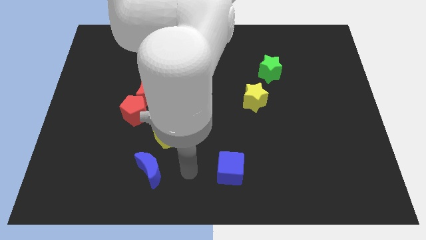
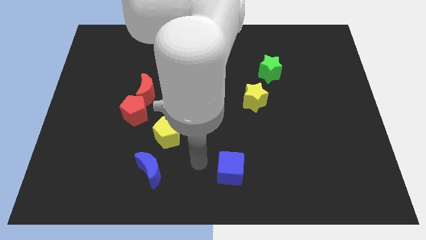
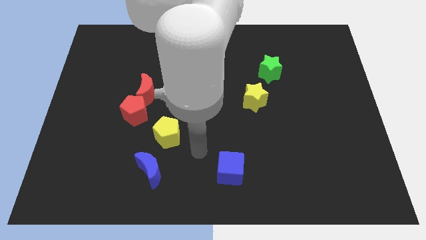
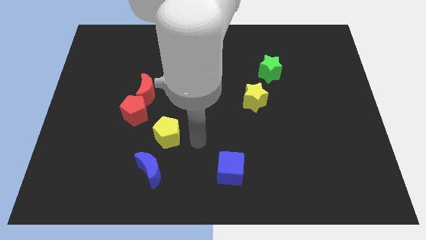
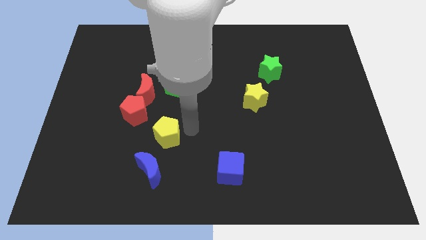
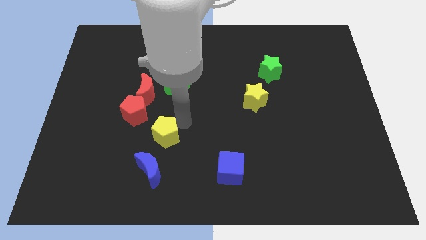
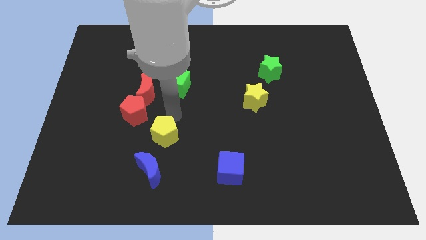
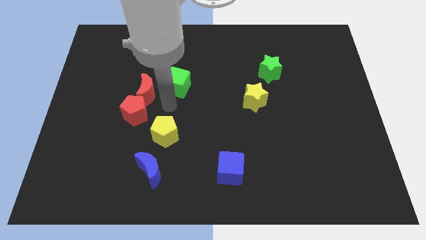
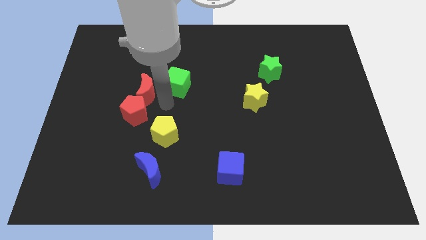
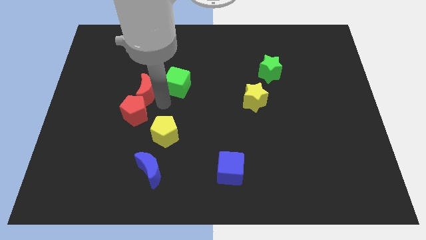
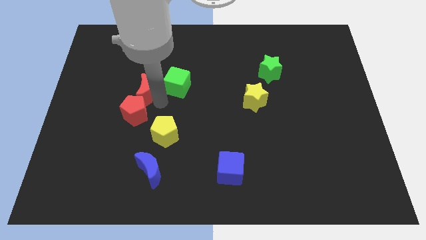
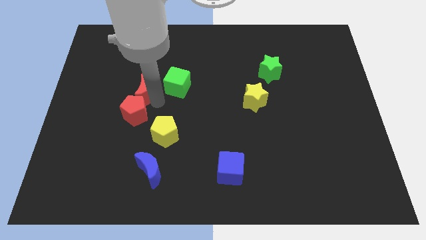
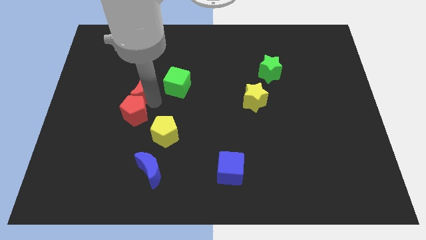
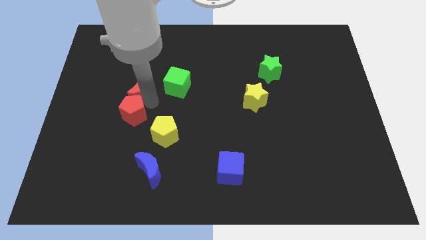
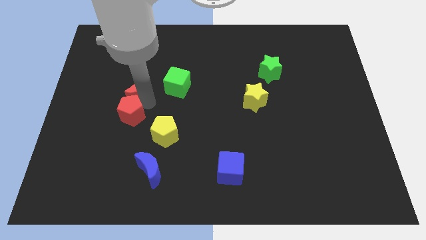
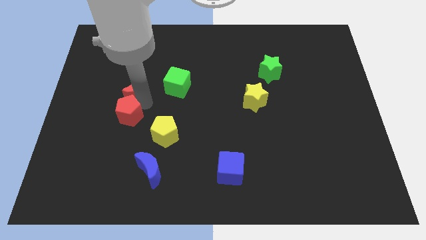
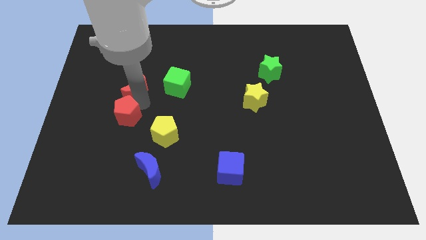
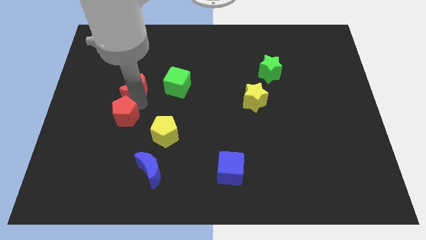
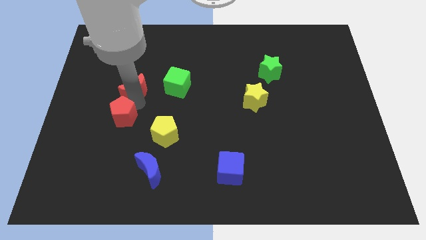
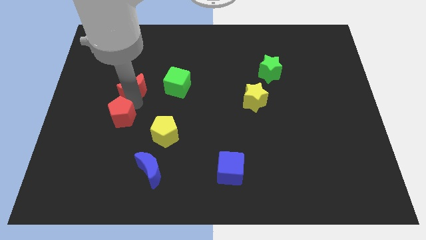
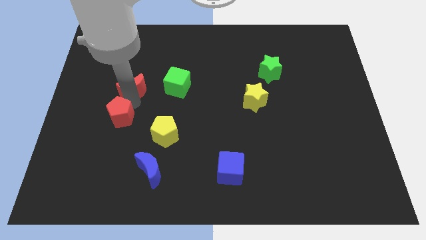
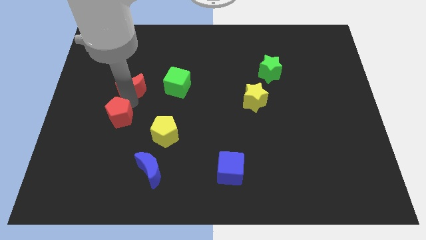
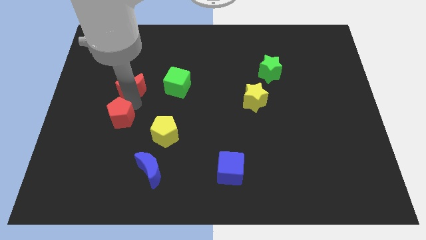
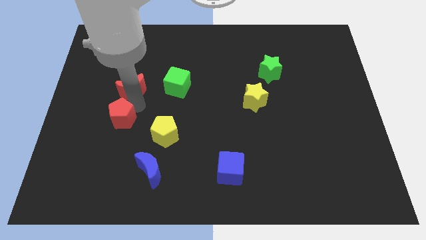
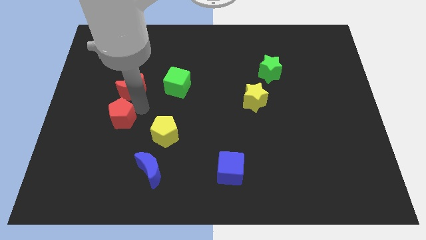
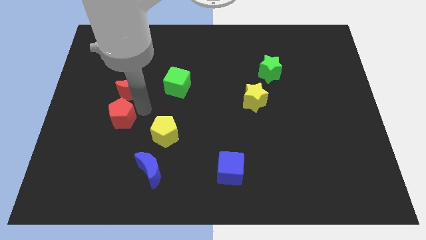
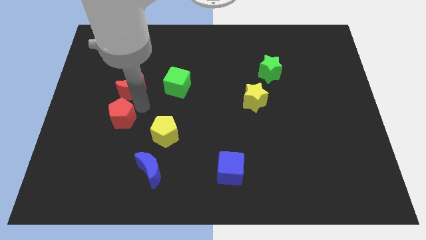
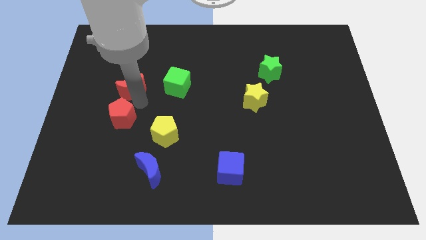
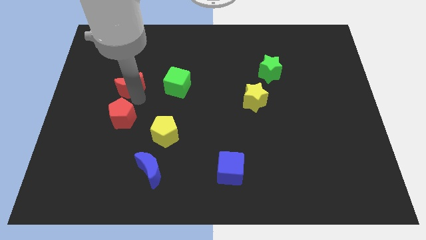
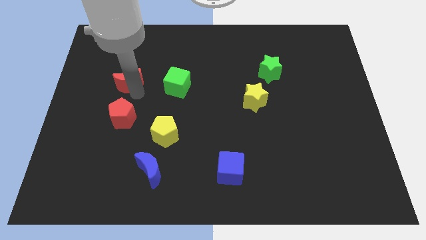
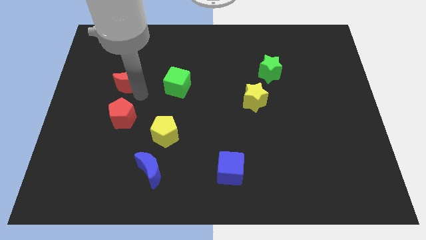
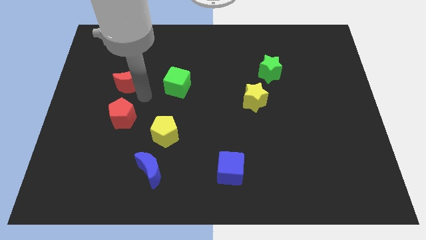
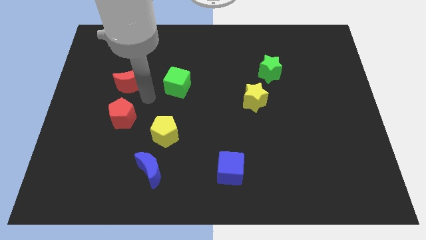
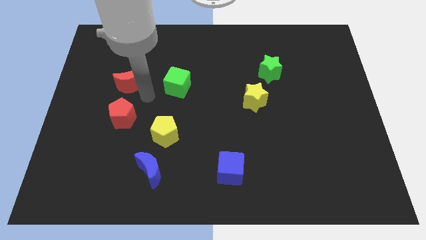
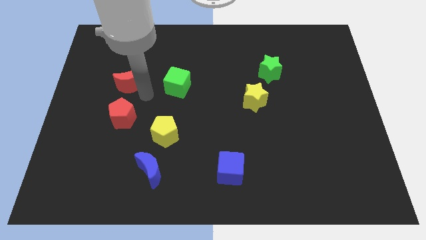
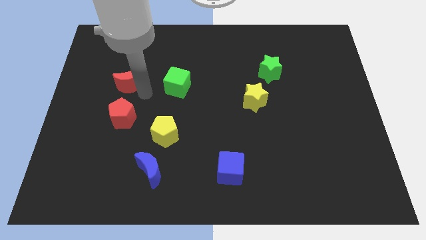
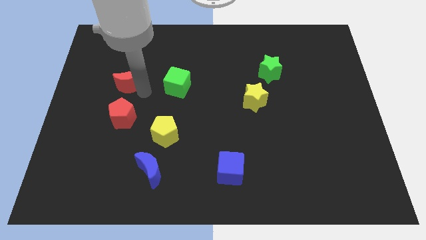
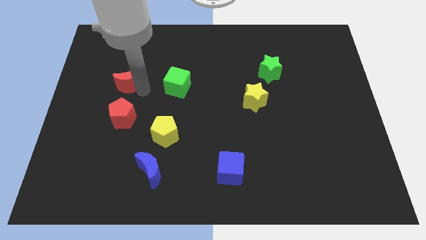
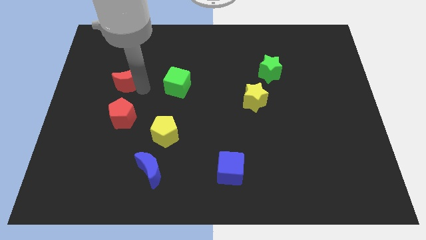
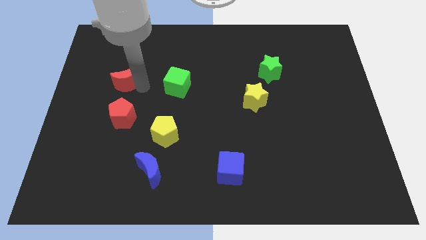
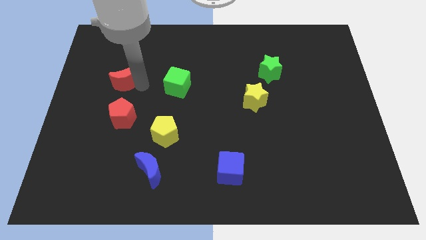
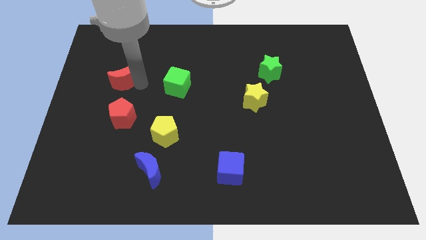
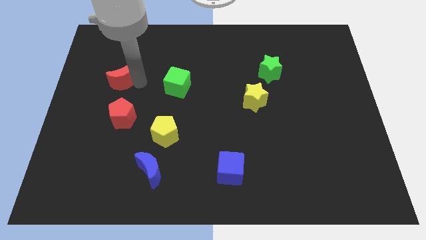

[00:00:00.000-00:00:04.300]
pull the red moon apart from the red pentagon and green cube

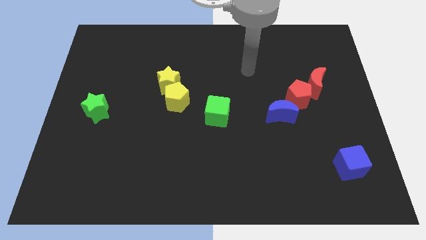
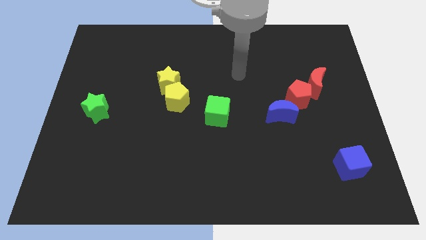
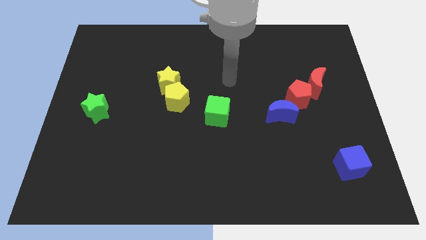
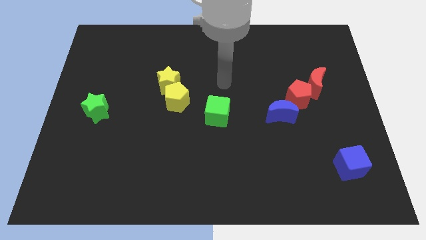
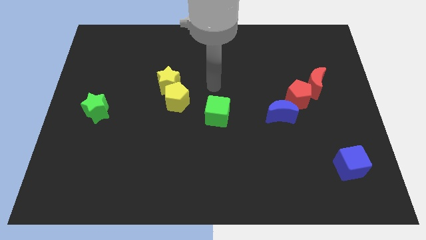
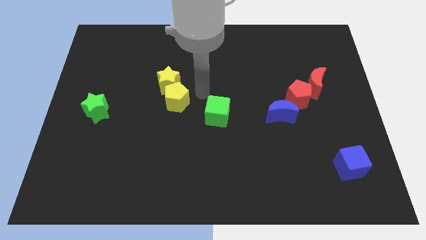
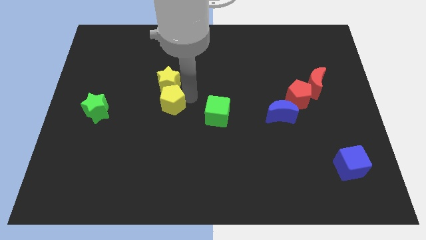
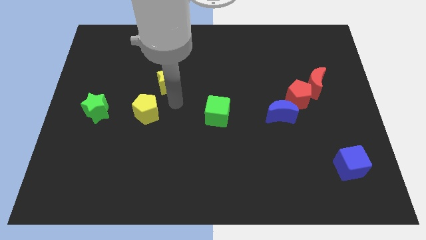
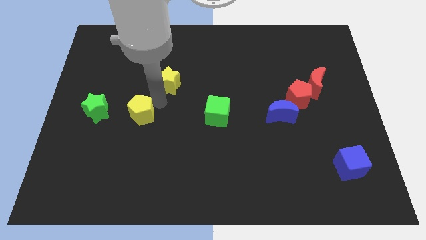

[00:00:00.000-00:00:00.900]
move the yellow star away from the yellow pentagon

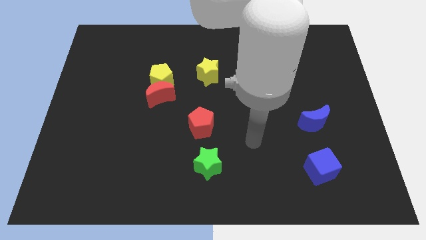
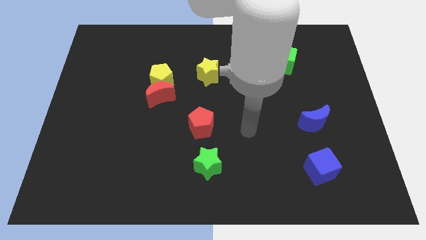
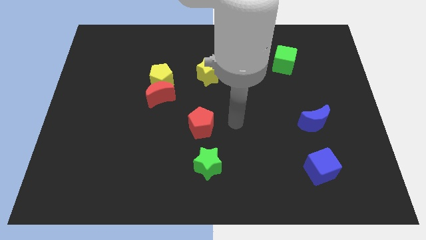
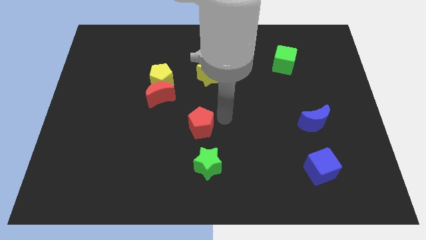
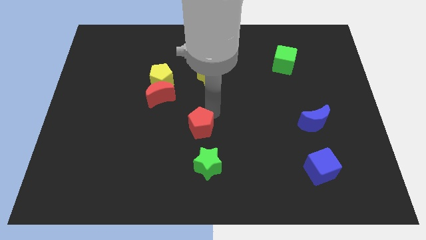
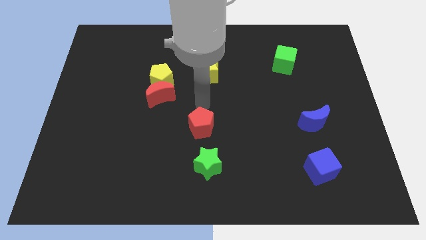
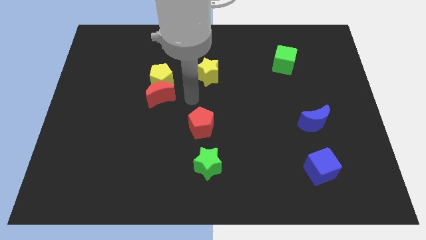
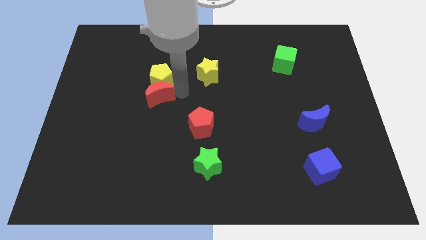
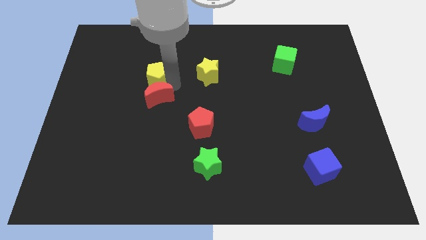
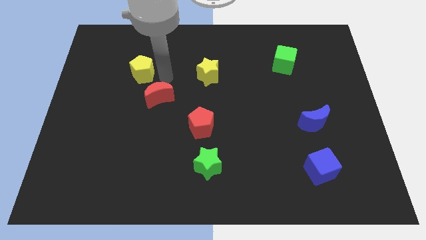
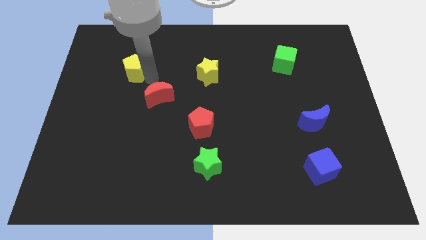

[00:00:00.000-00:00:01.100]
pull the red moon apart from the yellow pentagon

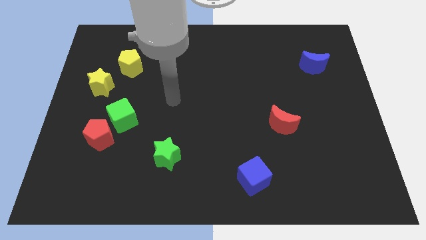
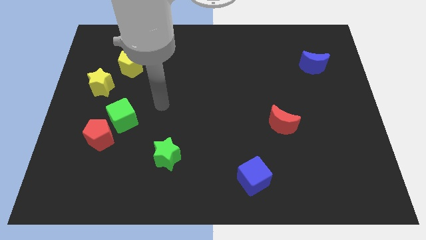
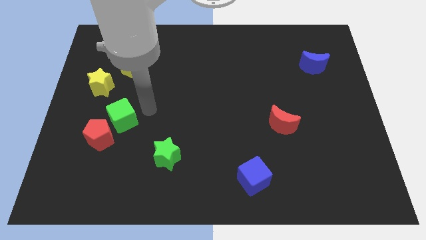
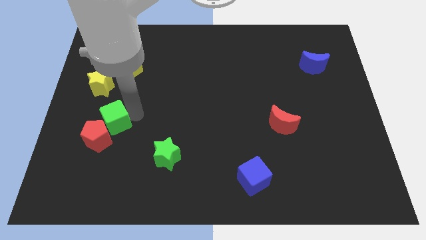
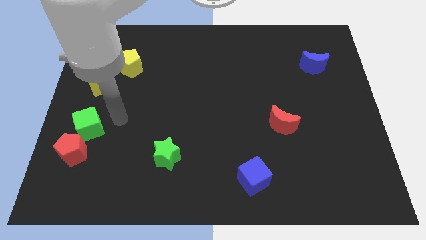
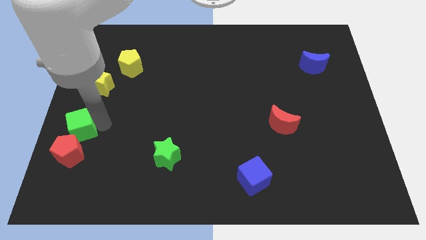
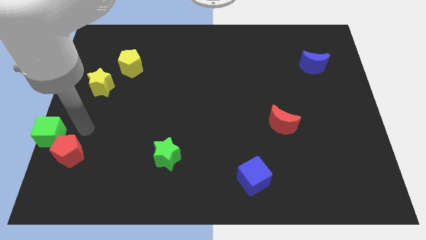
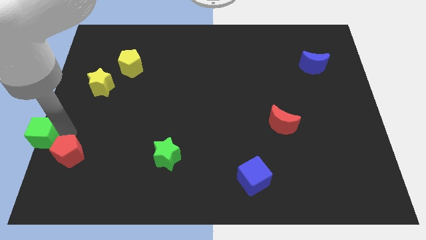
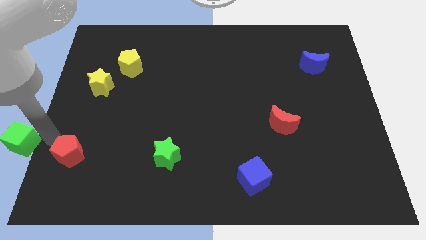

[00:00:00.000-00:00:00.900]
move the red pentagon away from the green cube

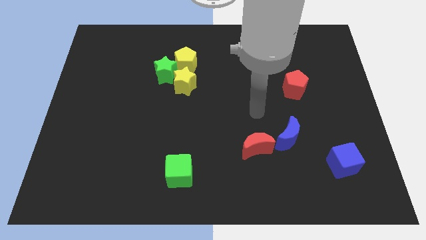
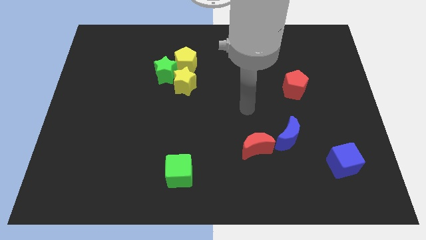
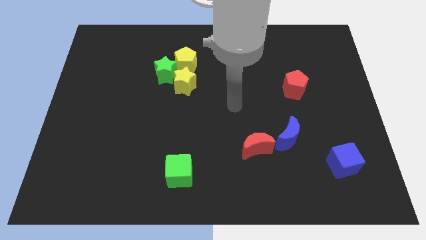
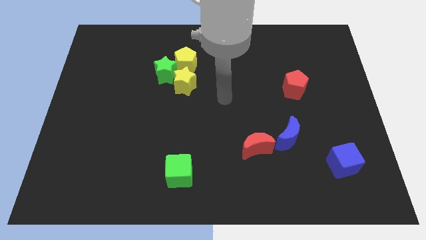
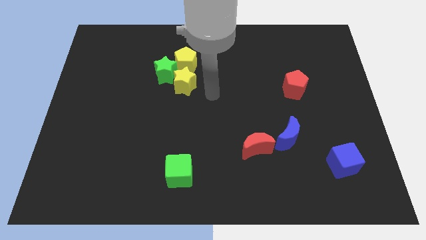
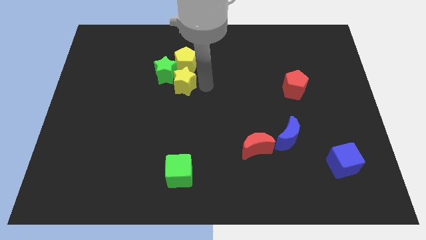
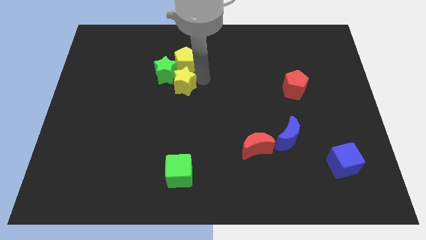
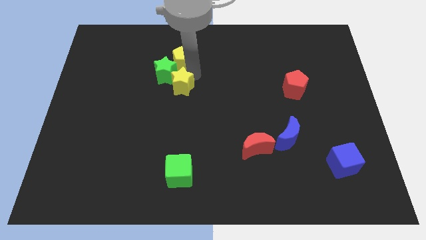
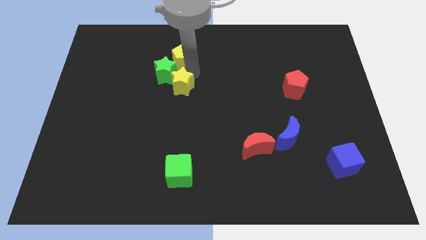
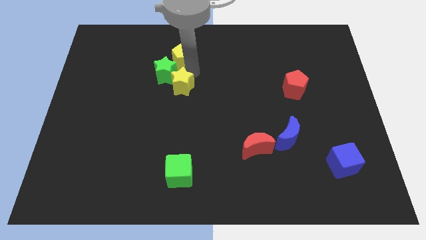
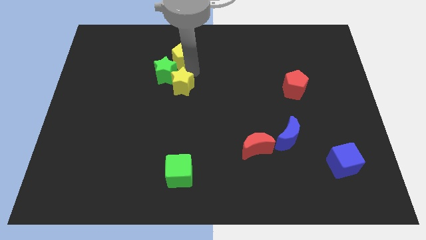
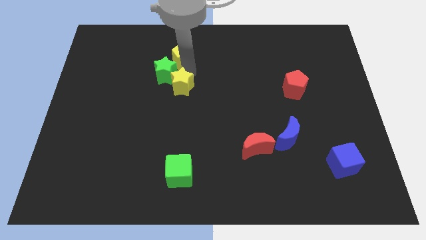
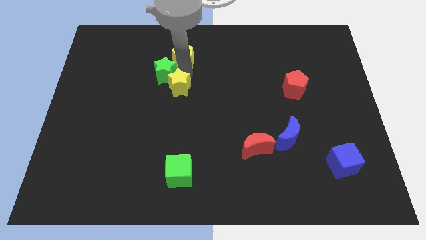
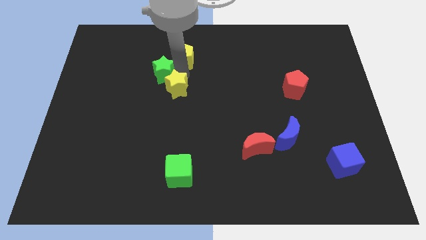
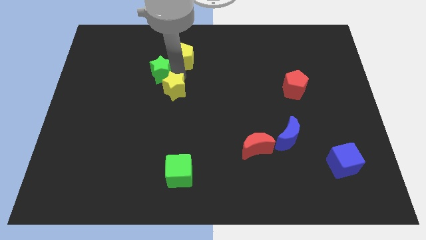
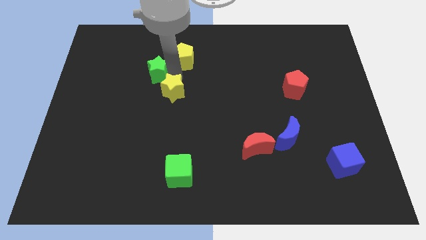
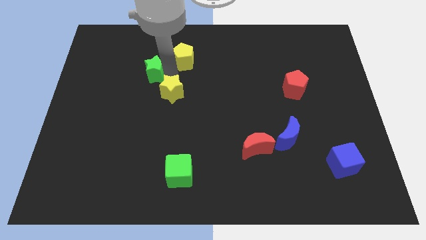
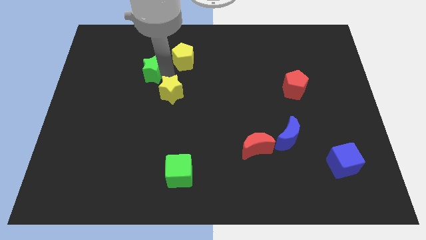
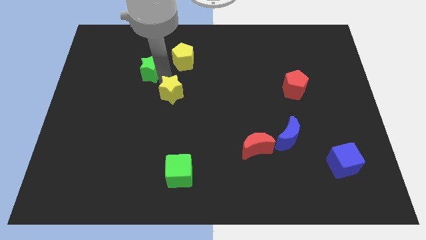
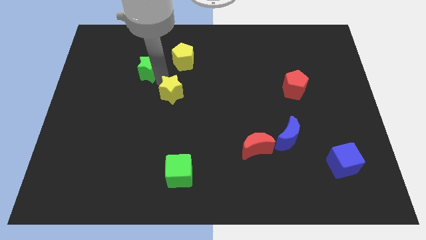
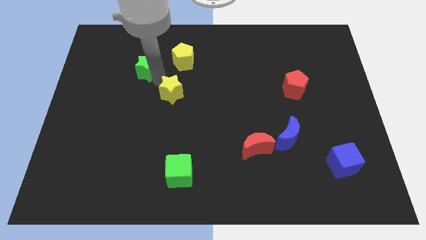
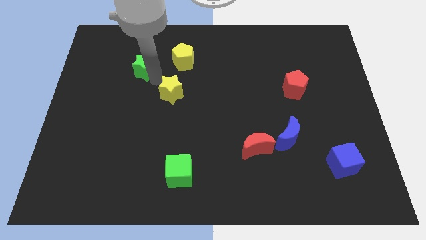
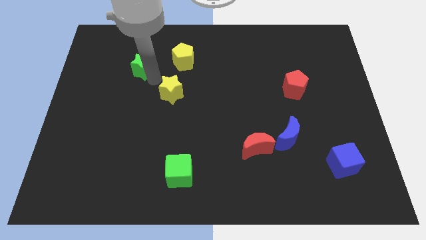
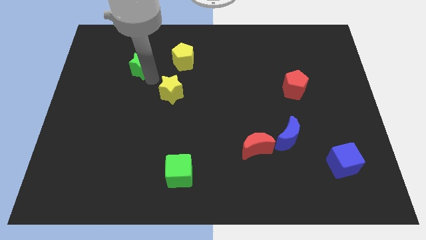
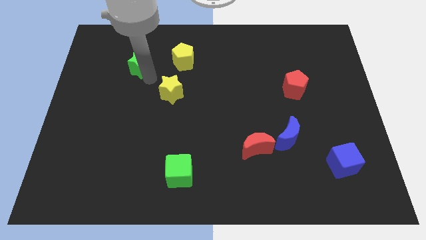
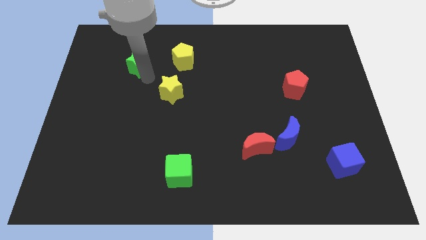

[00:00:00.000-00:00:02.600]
separate the green star from the yellow star and yellow pentagon
